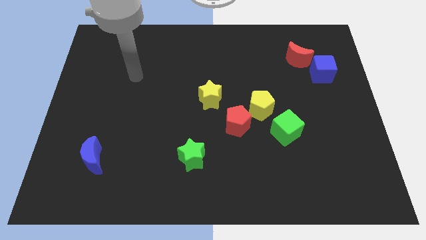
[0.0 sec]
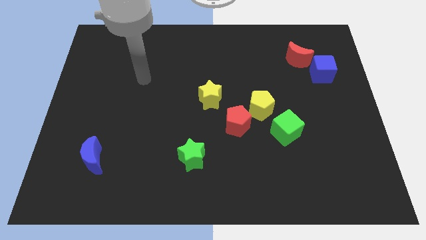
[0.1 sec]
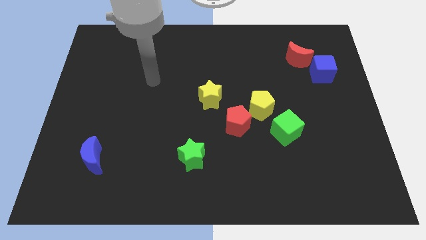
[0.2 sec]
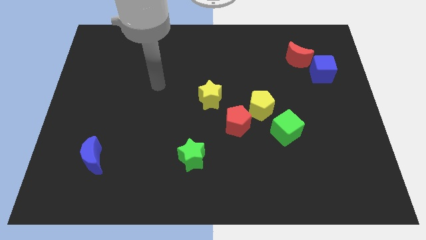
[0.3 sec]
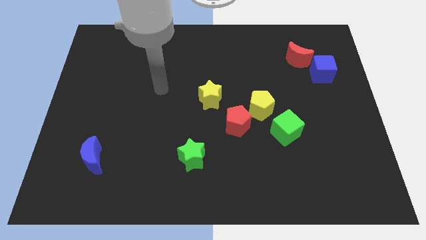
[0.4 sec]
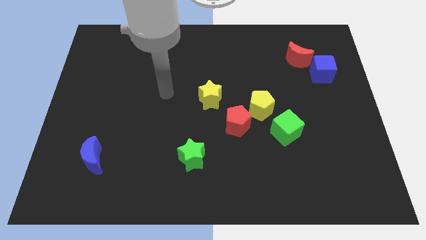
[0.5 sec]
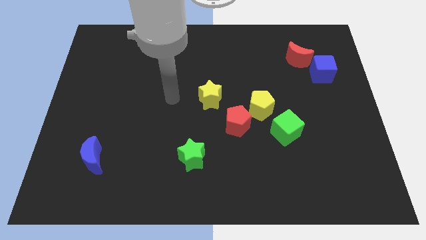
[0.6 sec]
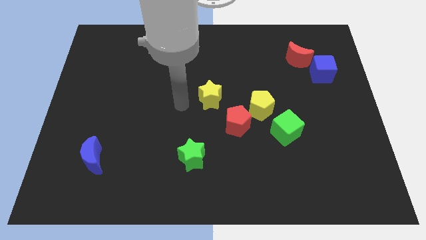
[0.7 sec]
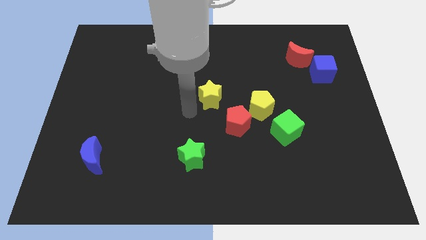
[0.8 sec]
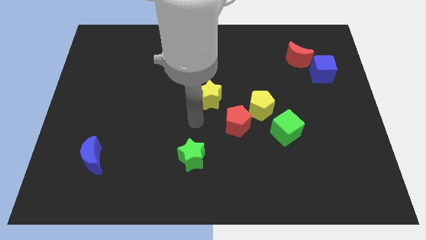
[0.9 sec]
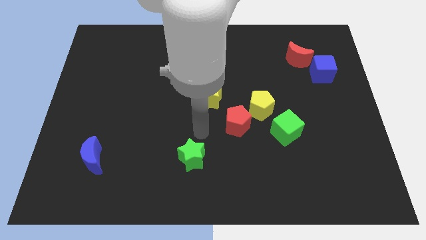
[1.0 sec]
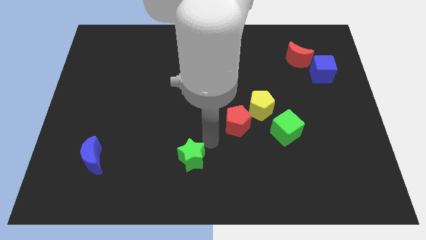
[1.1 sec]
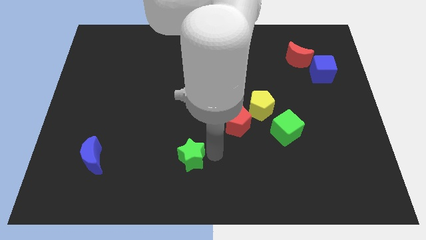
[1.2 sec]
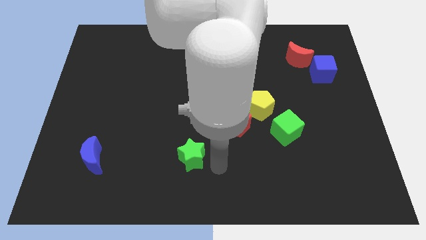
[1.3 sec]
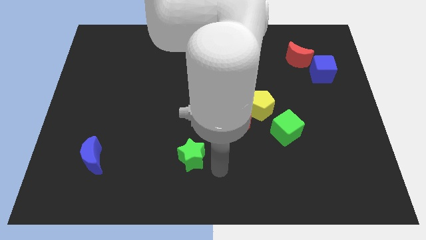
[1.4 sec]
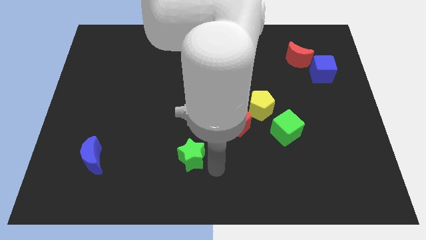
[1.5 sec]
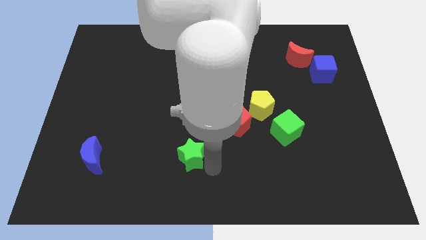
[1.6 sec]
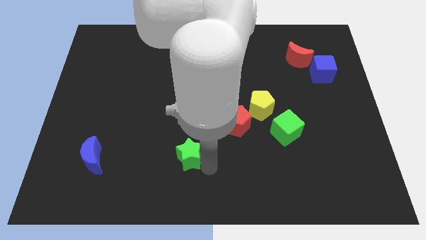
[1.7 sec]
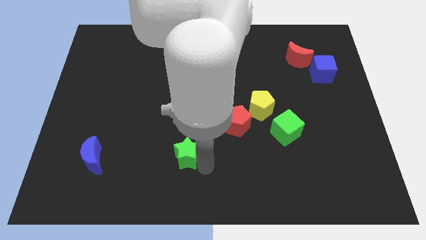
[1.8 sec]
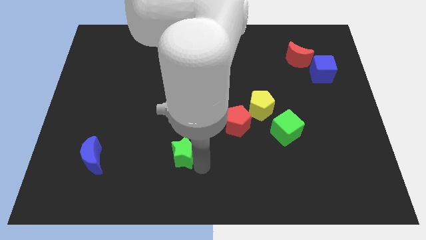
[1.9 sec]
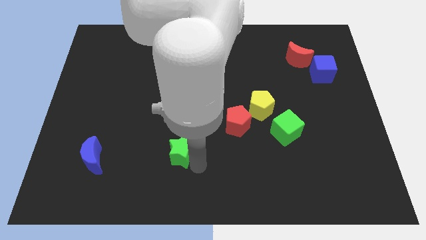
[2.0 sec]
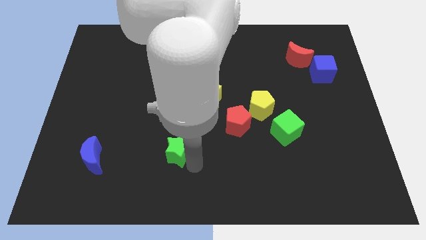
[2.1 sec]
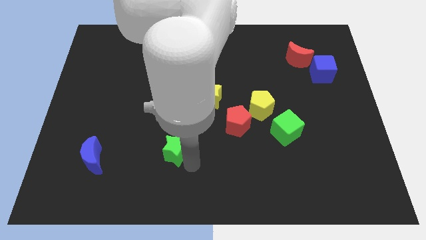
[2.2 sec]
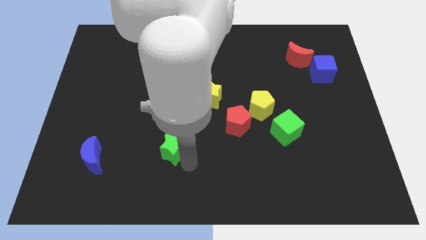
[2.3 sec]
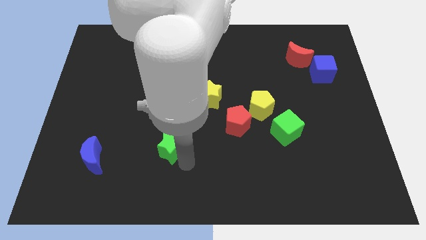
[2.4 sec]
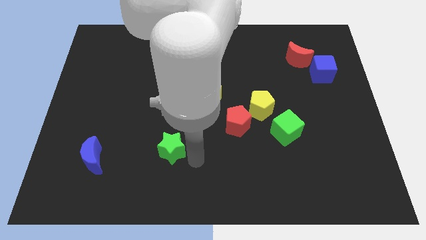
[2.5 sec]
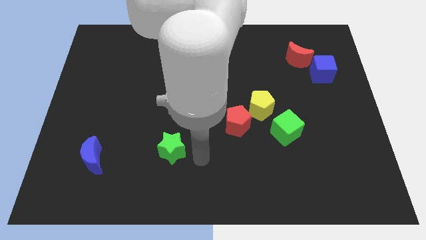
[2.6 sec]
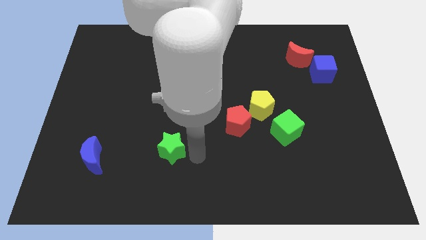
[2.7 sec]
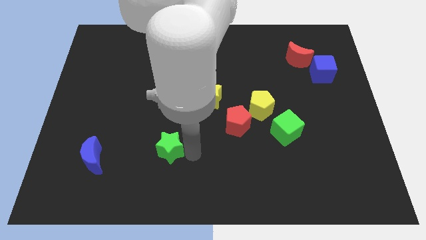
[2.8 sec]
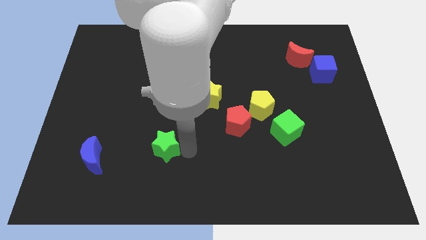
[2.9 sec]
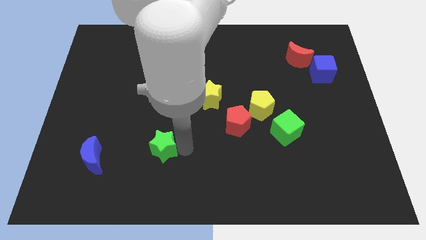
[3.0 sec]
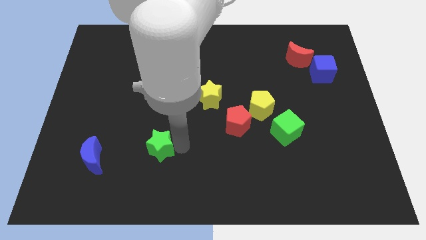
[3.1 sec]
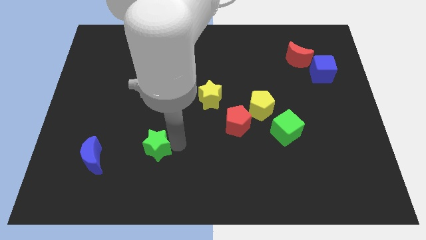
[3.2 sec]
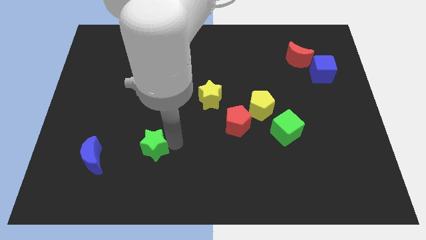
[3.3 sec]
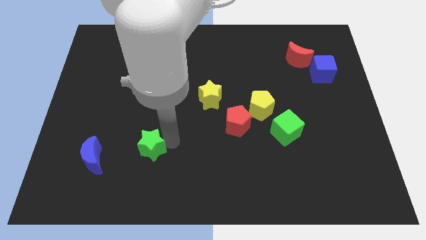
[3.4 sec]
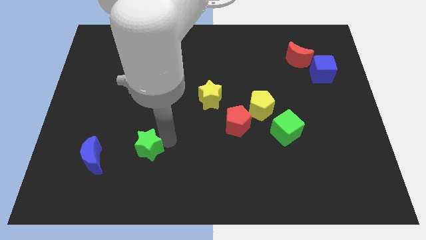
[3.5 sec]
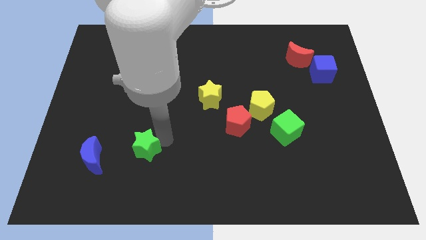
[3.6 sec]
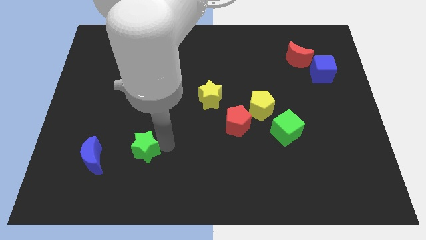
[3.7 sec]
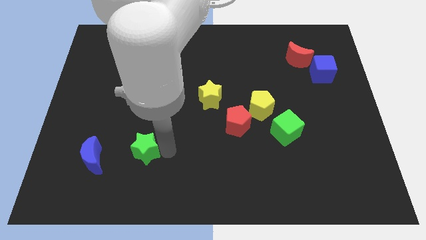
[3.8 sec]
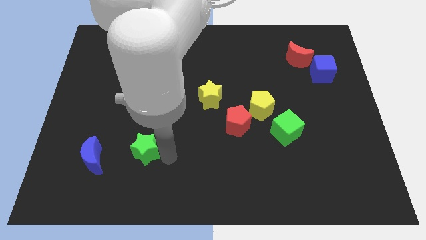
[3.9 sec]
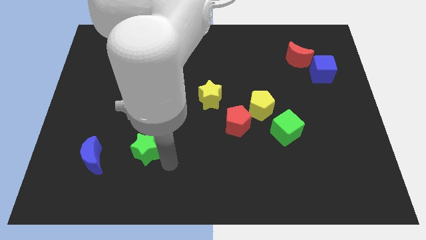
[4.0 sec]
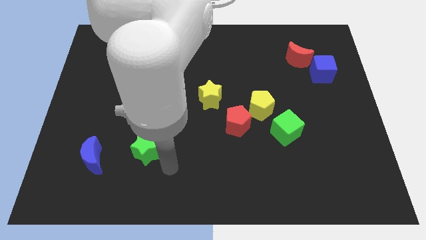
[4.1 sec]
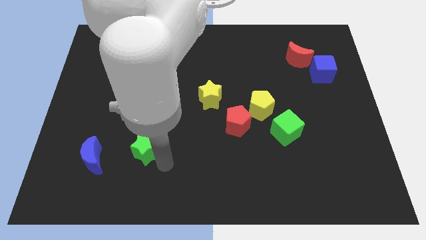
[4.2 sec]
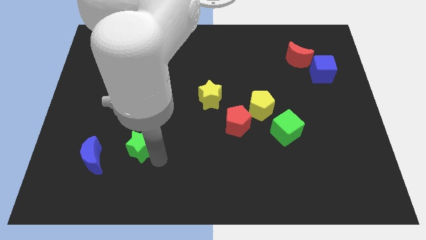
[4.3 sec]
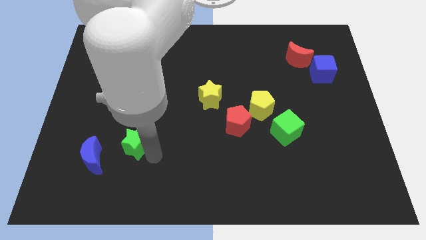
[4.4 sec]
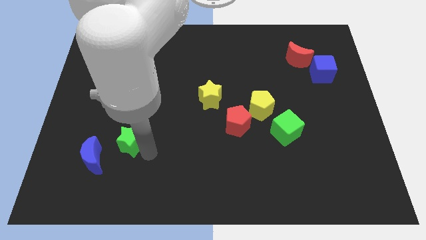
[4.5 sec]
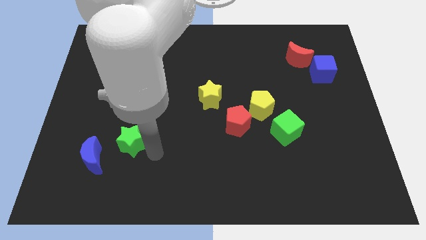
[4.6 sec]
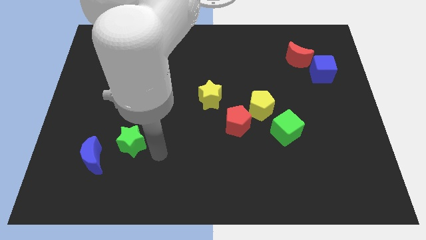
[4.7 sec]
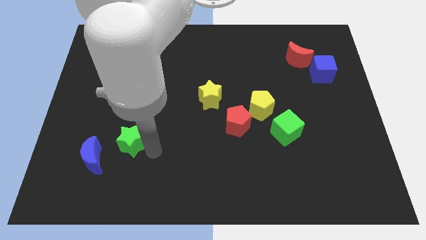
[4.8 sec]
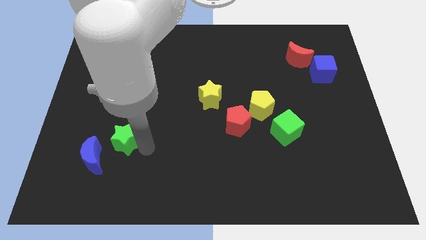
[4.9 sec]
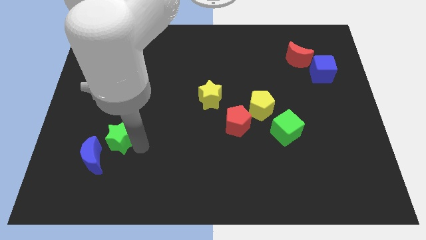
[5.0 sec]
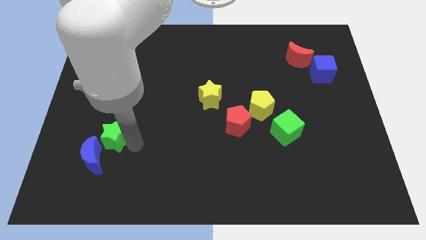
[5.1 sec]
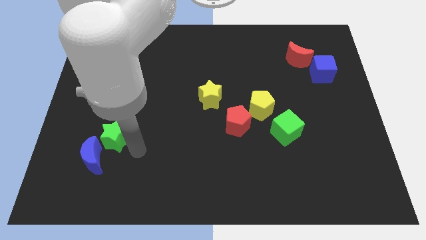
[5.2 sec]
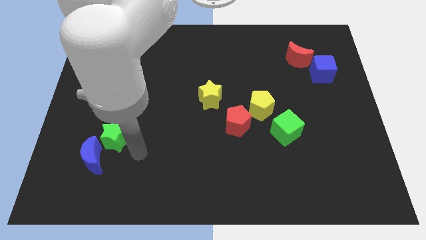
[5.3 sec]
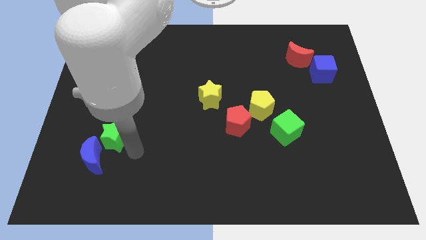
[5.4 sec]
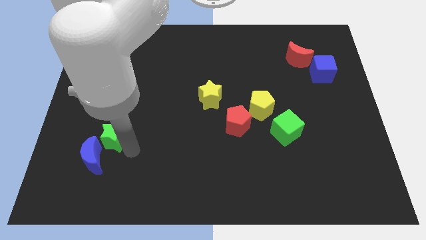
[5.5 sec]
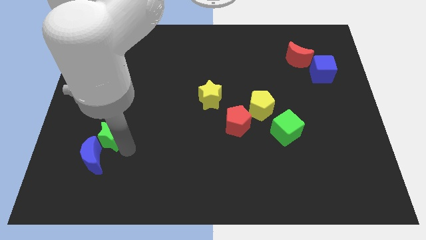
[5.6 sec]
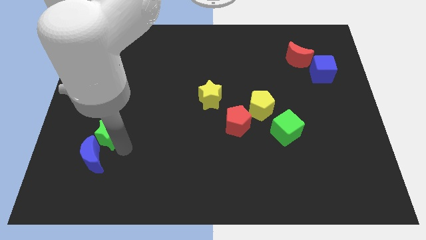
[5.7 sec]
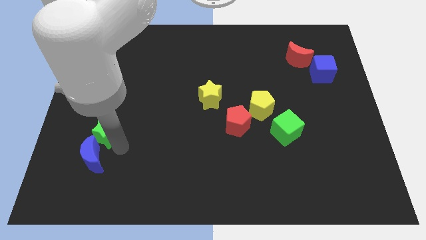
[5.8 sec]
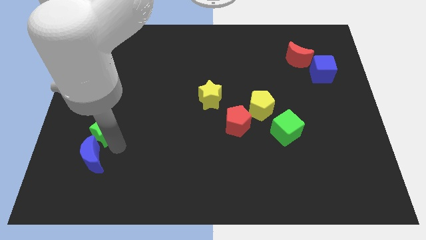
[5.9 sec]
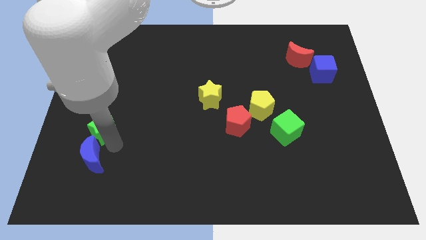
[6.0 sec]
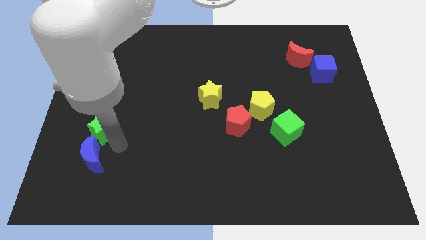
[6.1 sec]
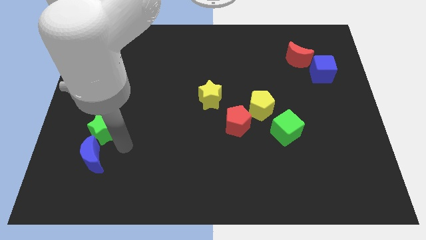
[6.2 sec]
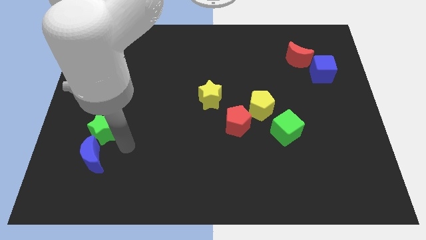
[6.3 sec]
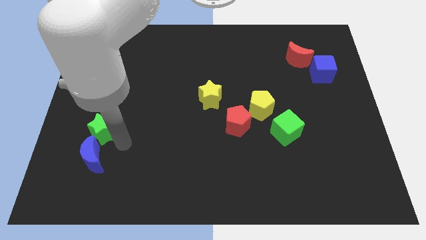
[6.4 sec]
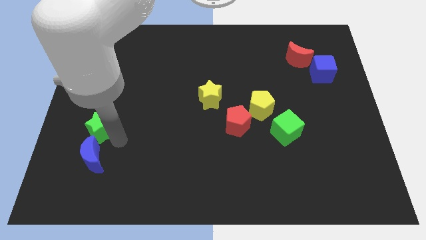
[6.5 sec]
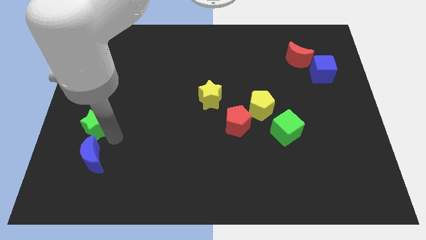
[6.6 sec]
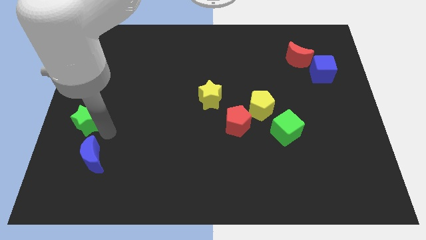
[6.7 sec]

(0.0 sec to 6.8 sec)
push the green star to the center left
